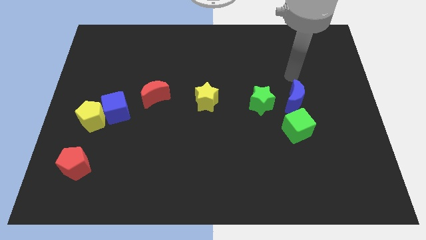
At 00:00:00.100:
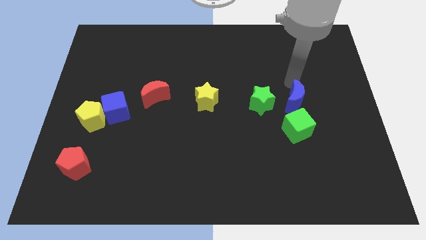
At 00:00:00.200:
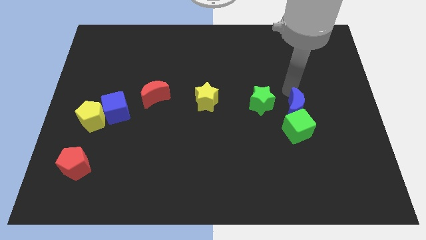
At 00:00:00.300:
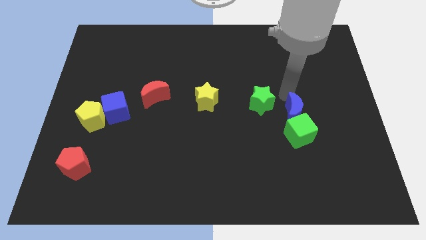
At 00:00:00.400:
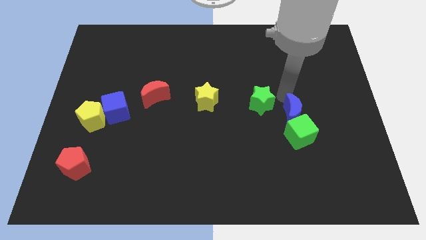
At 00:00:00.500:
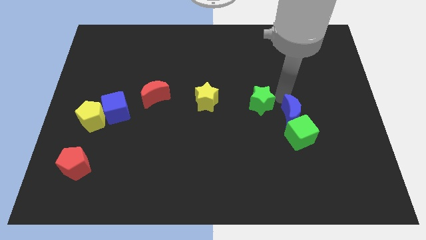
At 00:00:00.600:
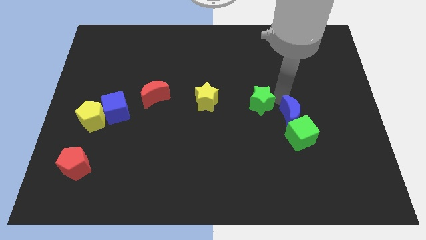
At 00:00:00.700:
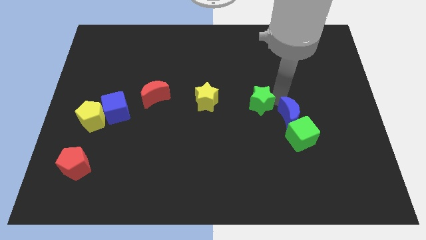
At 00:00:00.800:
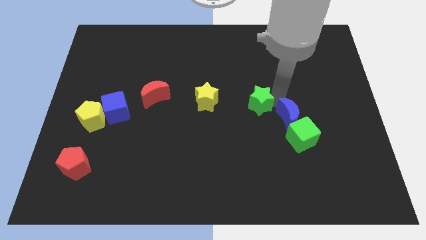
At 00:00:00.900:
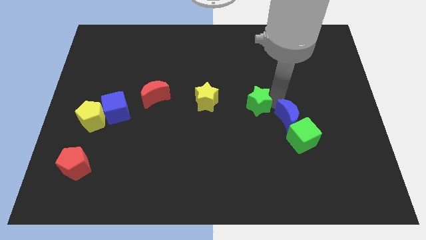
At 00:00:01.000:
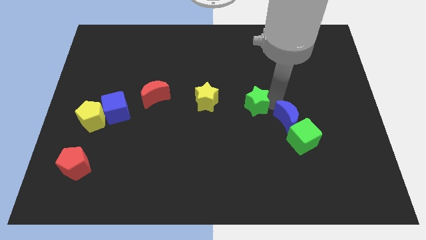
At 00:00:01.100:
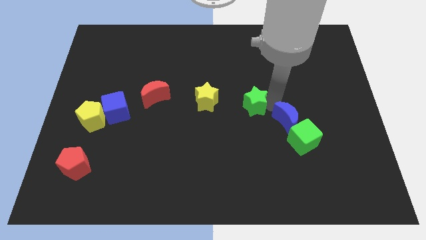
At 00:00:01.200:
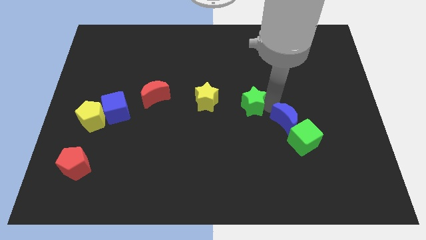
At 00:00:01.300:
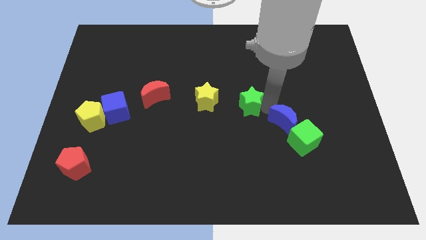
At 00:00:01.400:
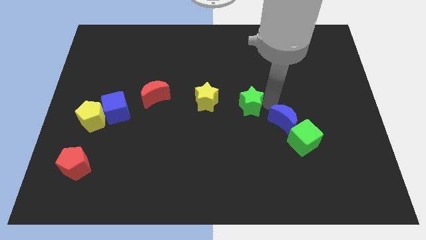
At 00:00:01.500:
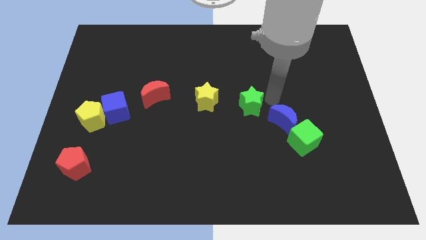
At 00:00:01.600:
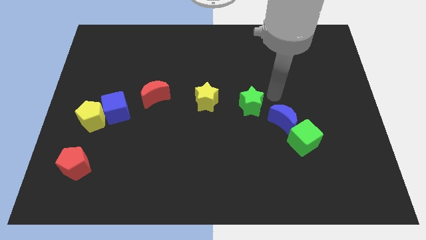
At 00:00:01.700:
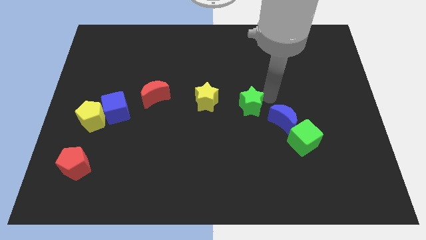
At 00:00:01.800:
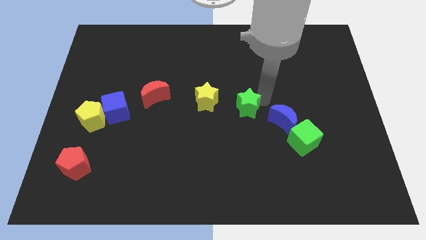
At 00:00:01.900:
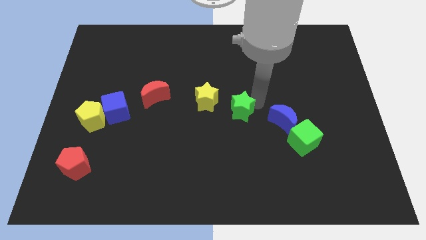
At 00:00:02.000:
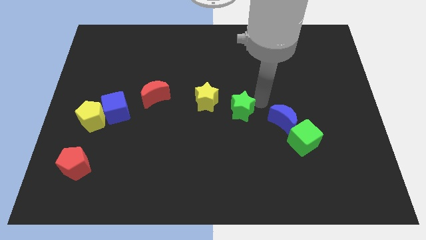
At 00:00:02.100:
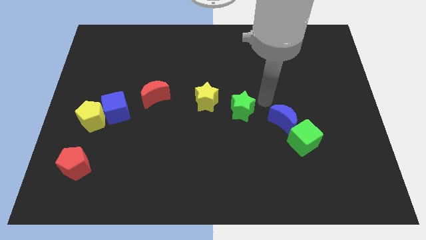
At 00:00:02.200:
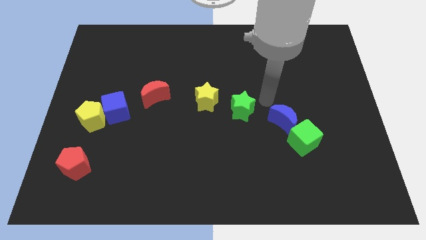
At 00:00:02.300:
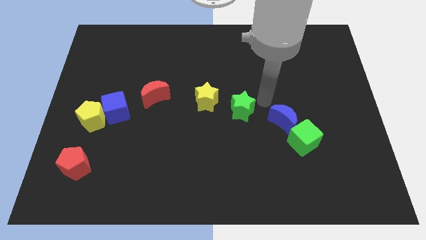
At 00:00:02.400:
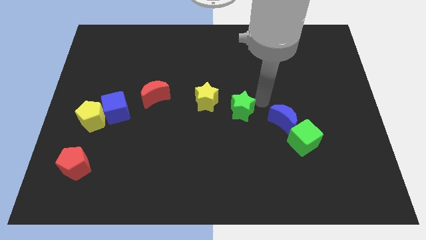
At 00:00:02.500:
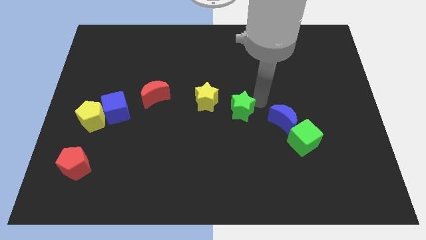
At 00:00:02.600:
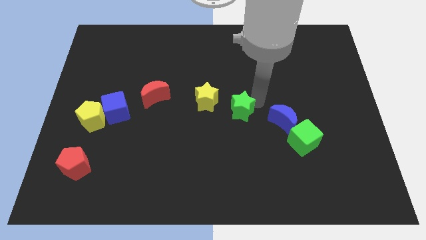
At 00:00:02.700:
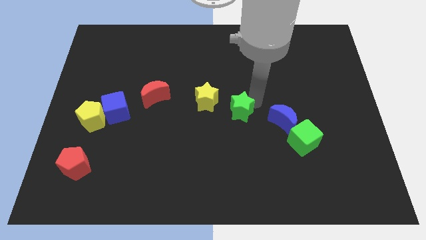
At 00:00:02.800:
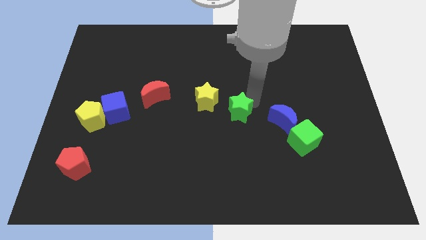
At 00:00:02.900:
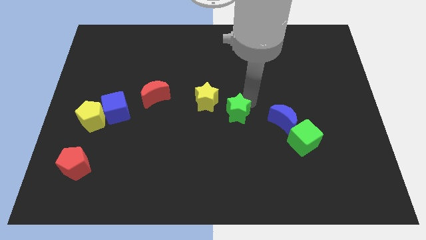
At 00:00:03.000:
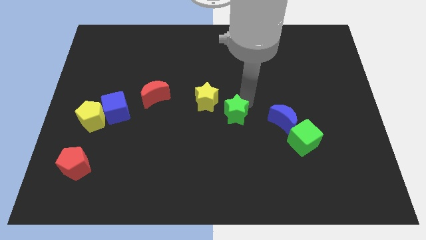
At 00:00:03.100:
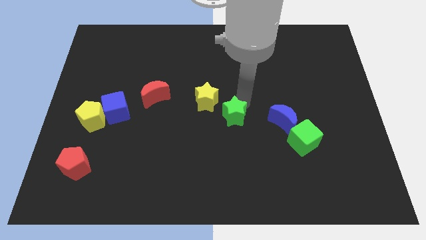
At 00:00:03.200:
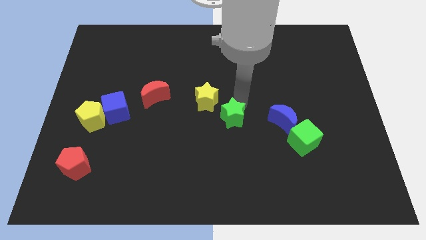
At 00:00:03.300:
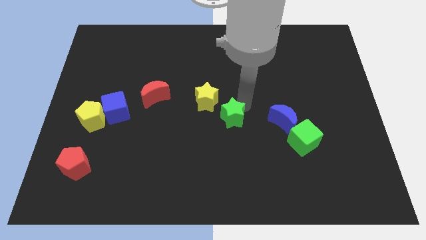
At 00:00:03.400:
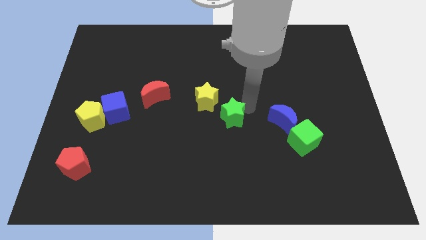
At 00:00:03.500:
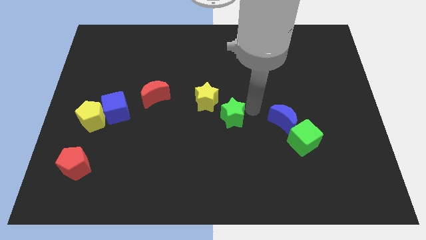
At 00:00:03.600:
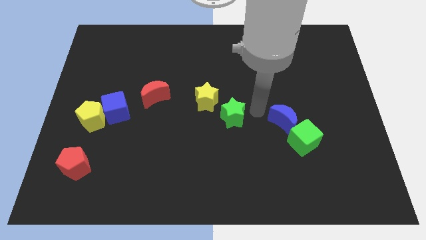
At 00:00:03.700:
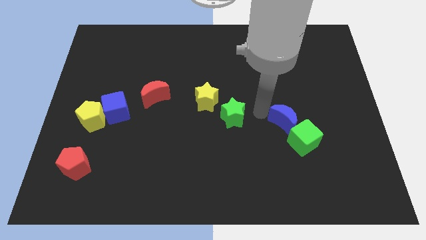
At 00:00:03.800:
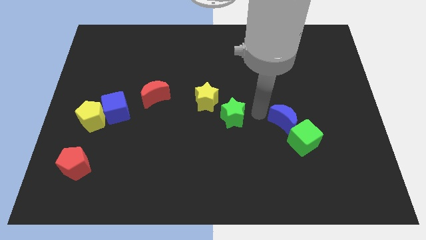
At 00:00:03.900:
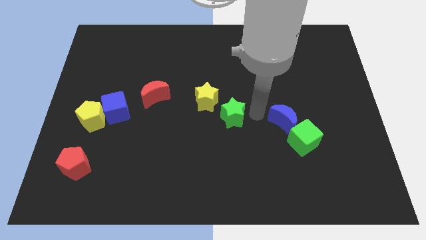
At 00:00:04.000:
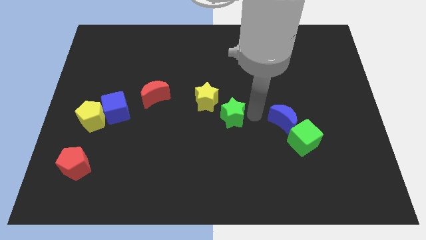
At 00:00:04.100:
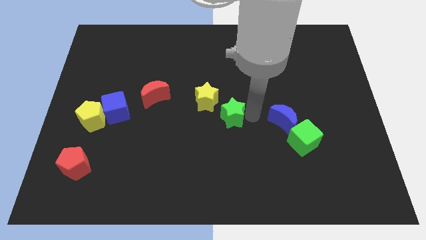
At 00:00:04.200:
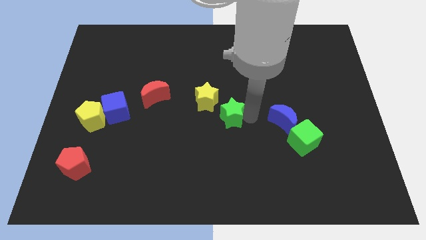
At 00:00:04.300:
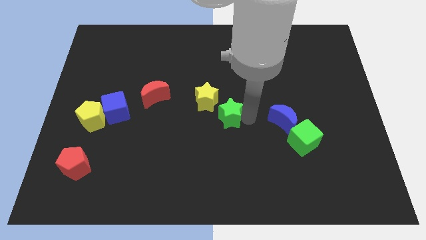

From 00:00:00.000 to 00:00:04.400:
slide the green star to the left a little bit

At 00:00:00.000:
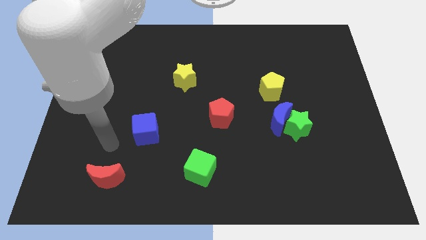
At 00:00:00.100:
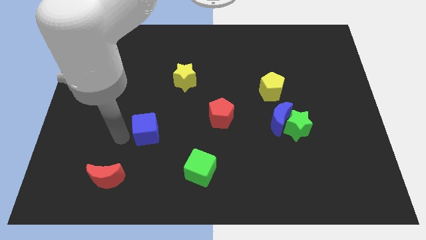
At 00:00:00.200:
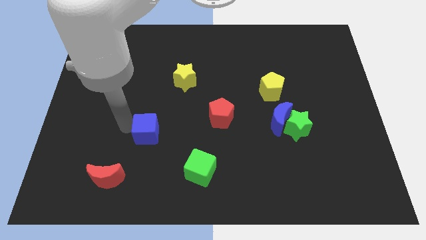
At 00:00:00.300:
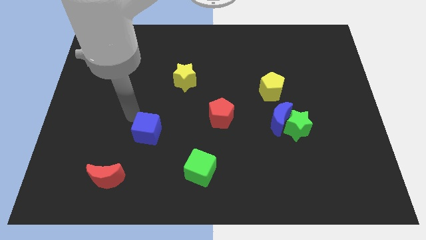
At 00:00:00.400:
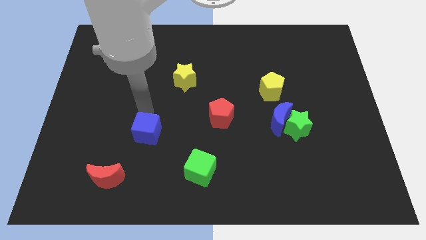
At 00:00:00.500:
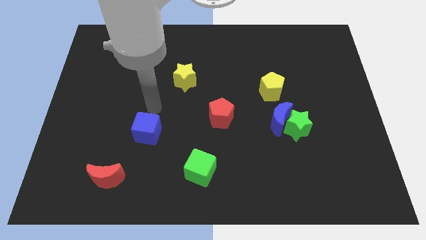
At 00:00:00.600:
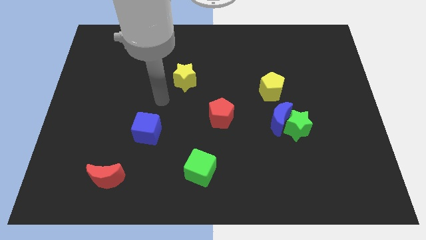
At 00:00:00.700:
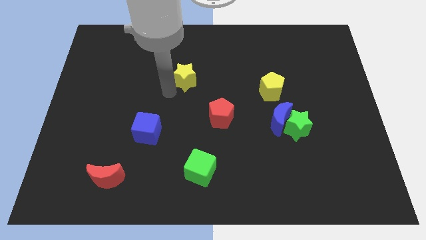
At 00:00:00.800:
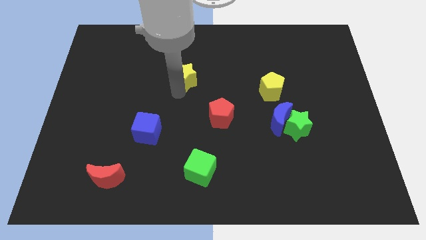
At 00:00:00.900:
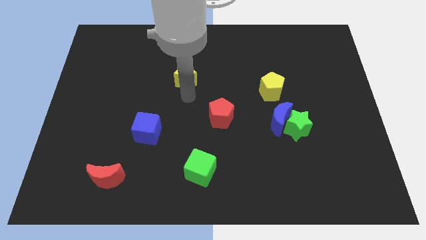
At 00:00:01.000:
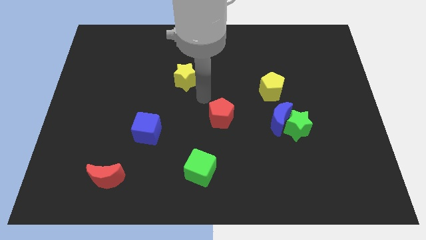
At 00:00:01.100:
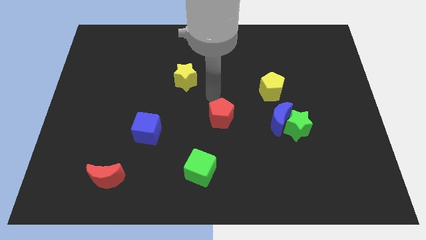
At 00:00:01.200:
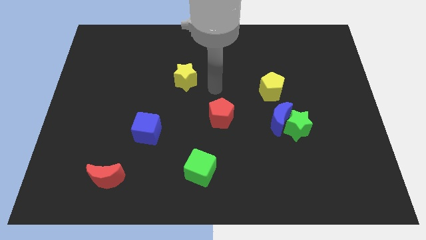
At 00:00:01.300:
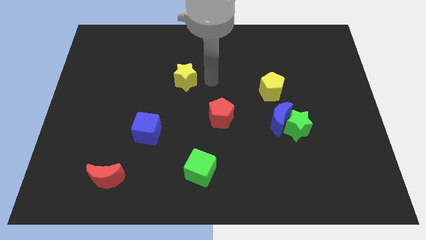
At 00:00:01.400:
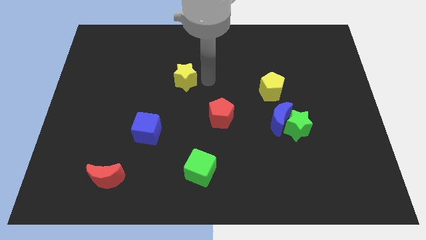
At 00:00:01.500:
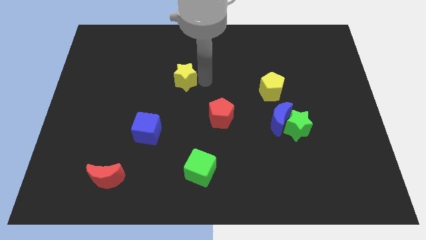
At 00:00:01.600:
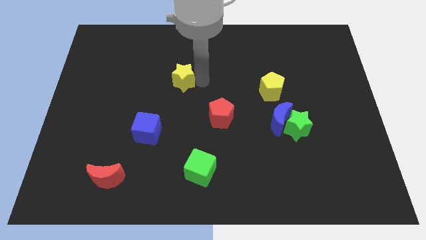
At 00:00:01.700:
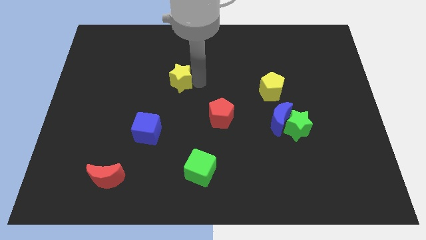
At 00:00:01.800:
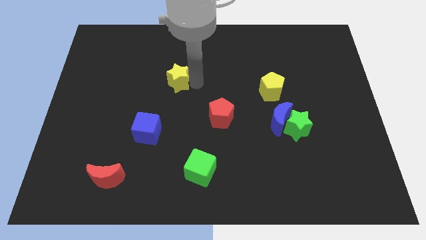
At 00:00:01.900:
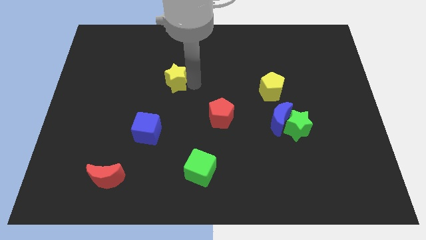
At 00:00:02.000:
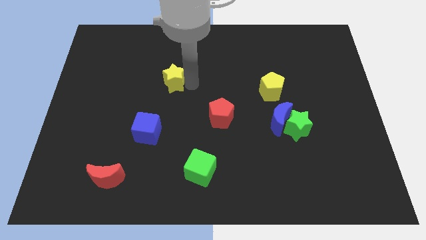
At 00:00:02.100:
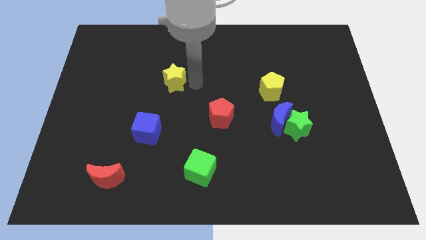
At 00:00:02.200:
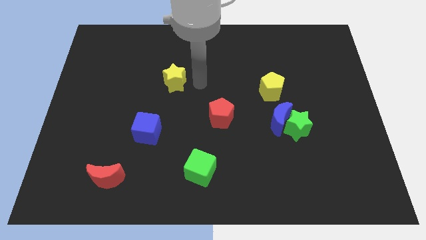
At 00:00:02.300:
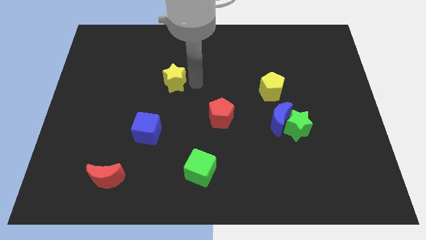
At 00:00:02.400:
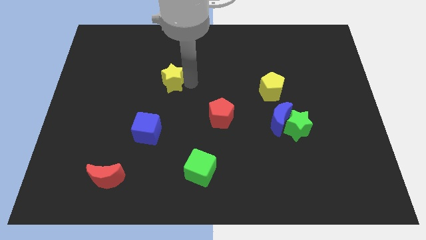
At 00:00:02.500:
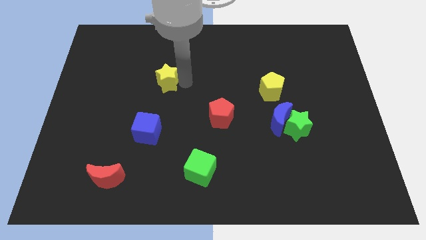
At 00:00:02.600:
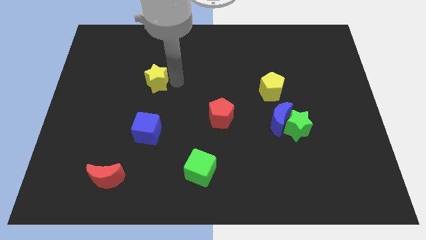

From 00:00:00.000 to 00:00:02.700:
move the yellow star a bit to the left

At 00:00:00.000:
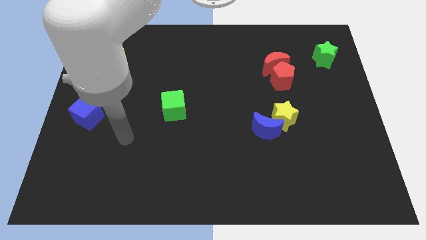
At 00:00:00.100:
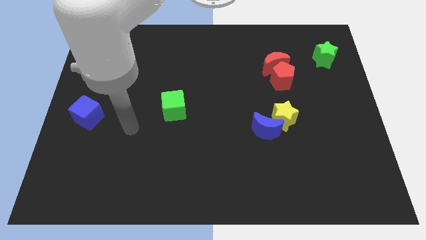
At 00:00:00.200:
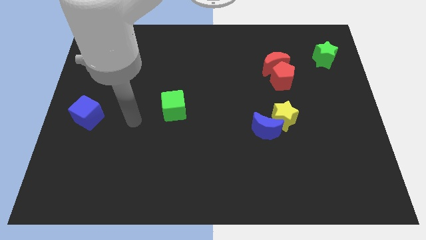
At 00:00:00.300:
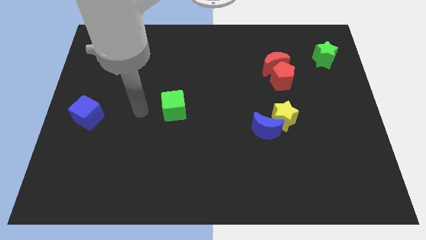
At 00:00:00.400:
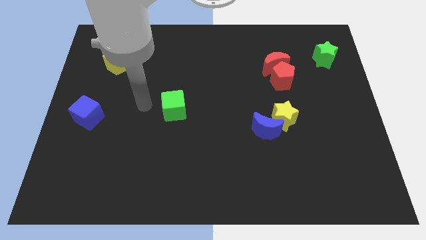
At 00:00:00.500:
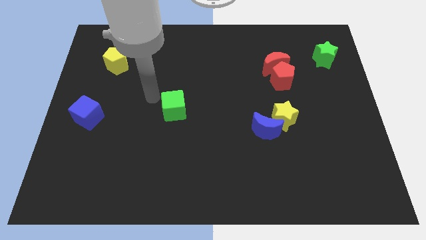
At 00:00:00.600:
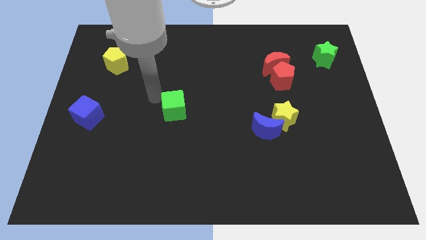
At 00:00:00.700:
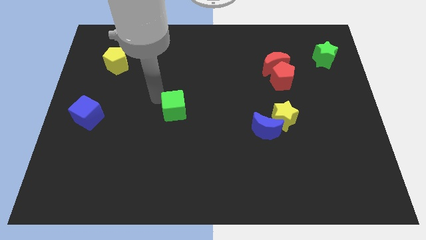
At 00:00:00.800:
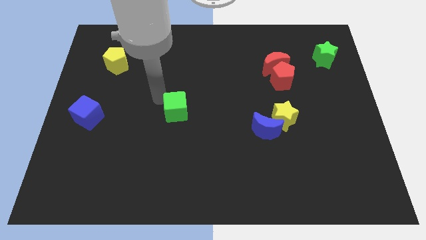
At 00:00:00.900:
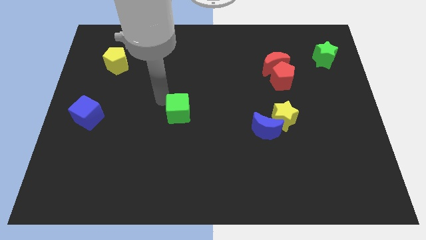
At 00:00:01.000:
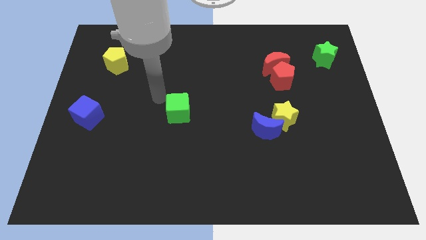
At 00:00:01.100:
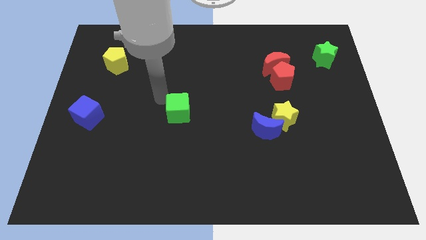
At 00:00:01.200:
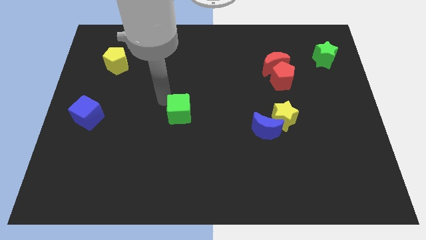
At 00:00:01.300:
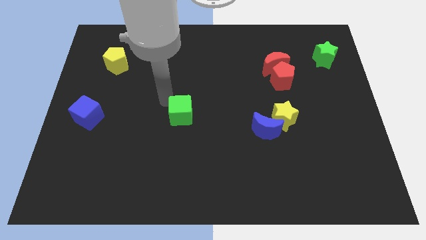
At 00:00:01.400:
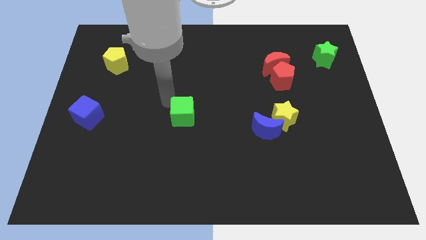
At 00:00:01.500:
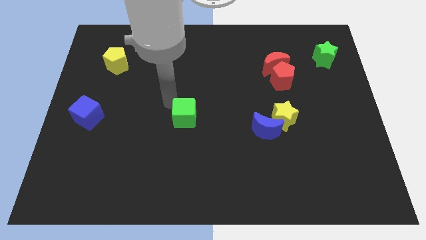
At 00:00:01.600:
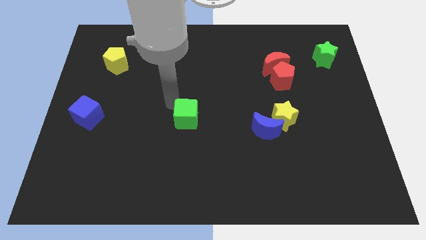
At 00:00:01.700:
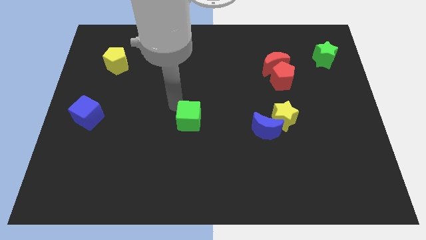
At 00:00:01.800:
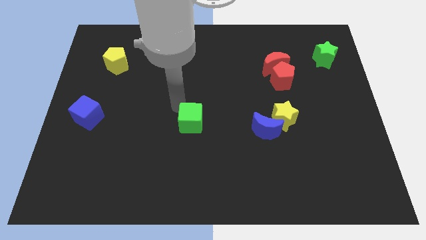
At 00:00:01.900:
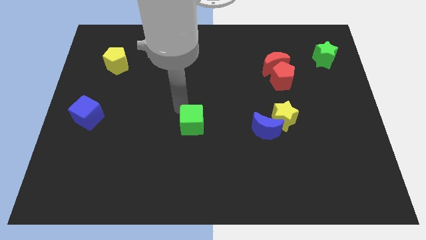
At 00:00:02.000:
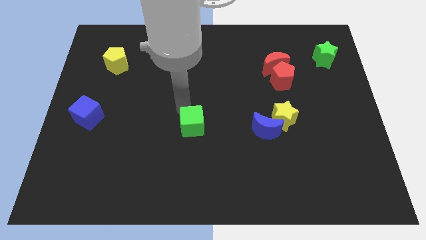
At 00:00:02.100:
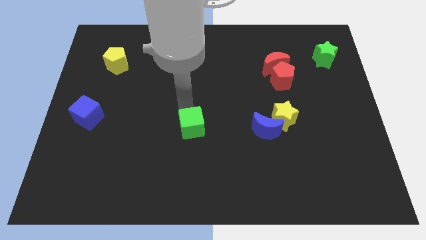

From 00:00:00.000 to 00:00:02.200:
slide the green cube somewhat down and then right
